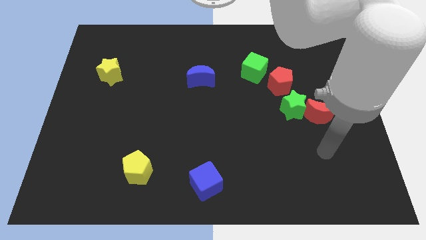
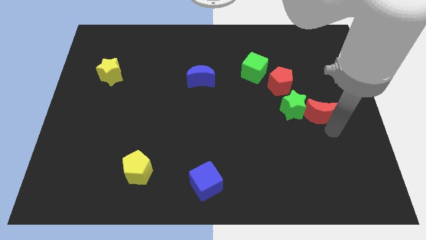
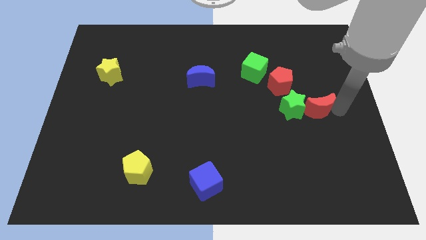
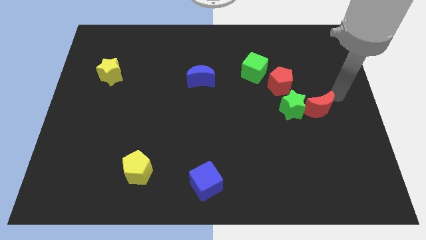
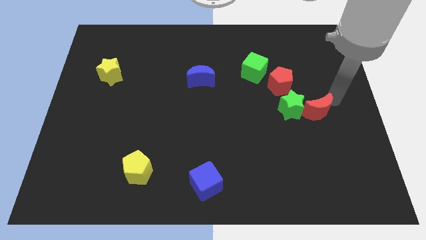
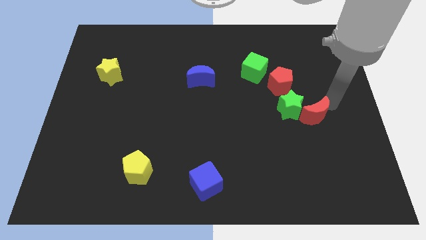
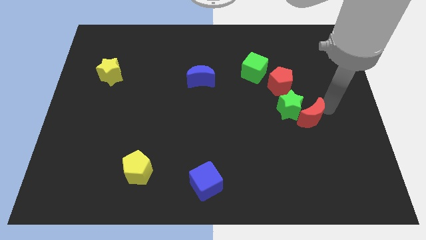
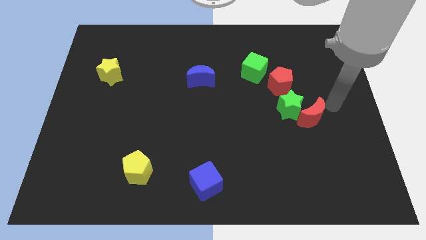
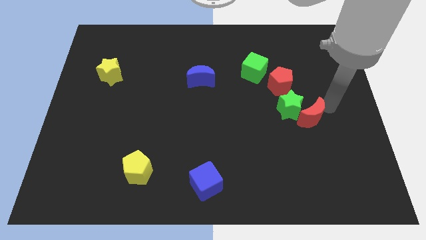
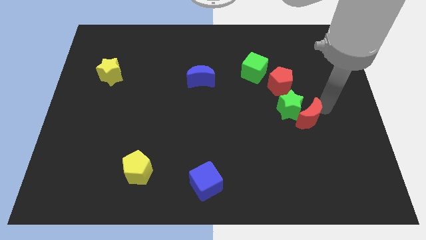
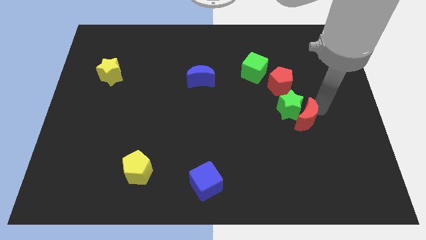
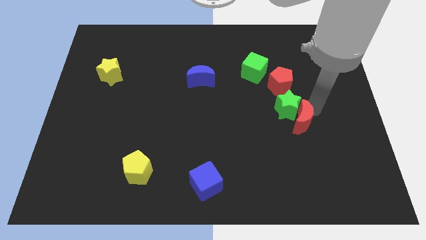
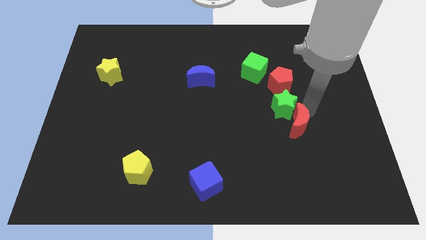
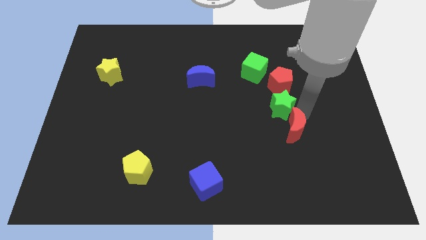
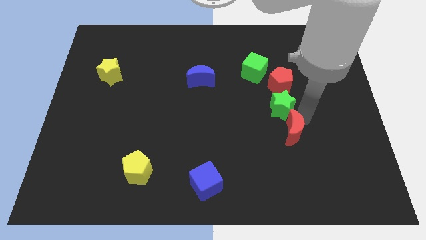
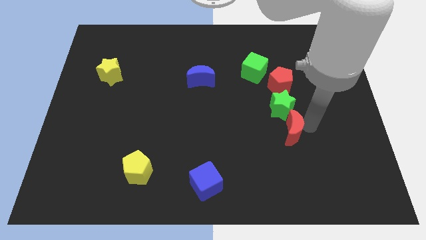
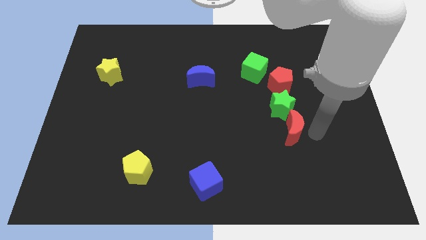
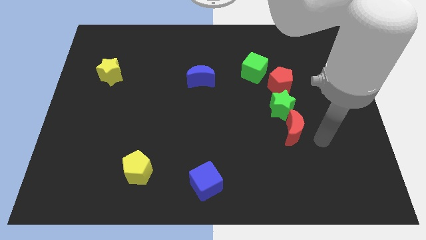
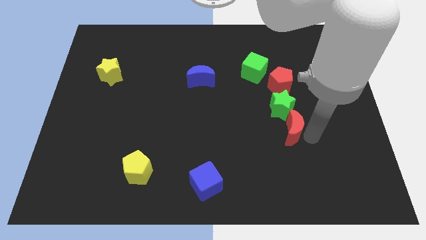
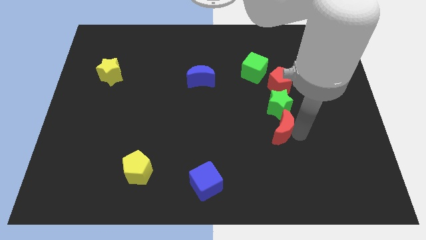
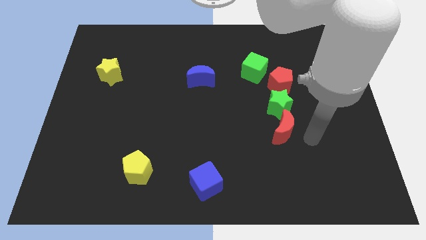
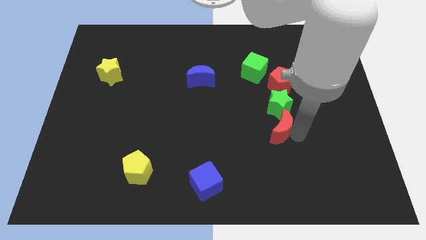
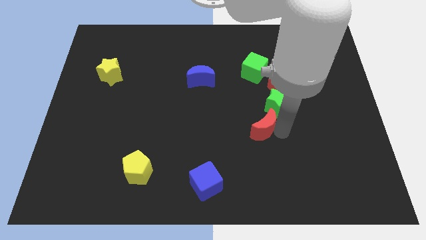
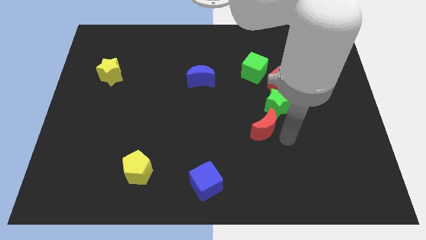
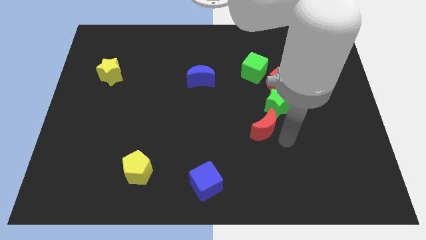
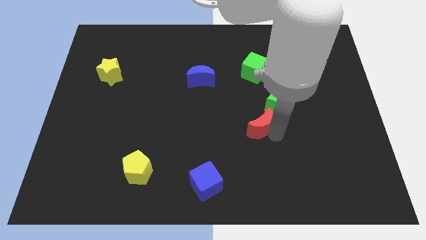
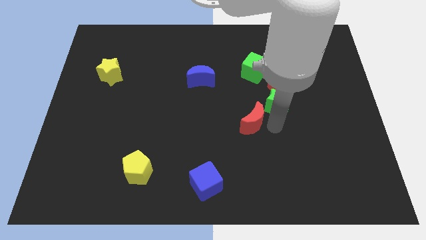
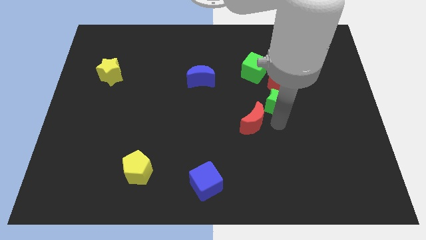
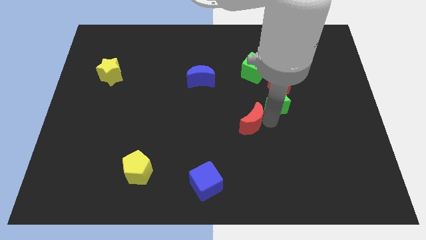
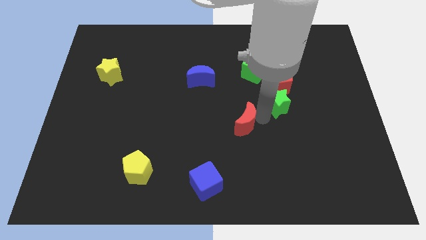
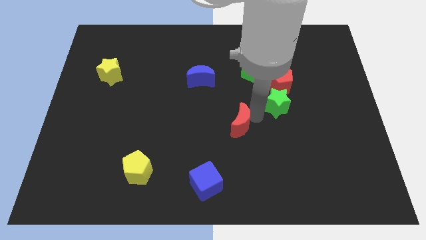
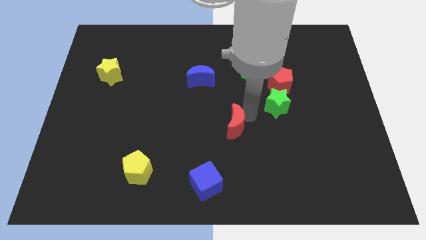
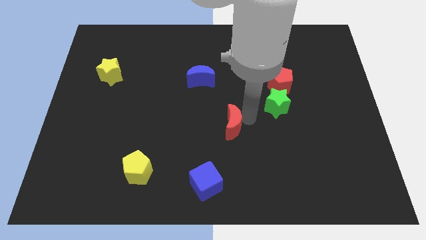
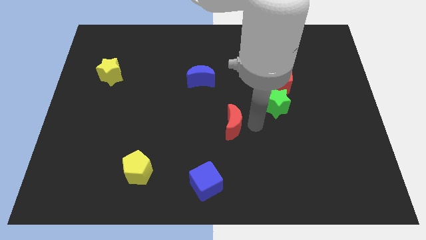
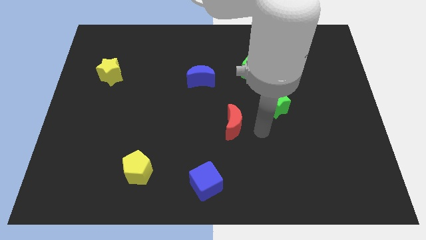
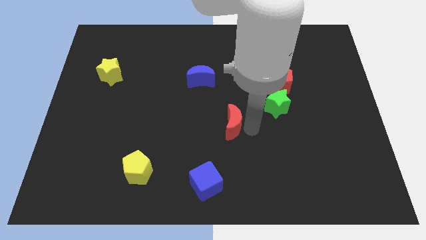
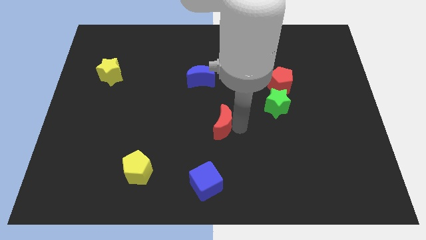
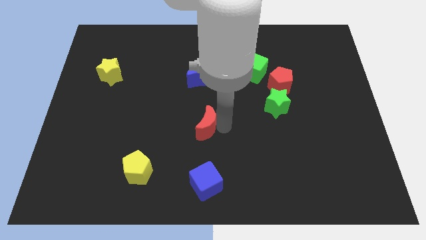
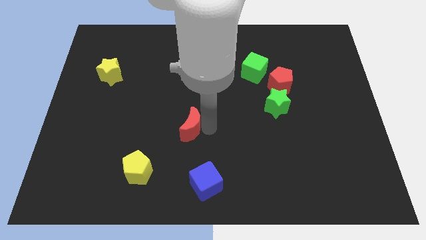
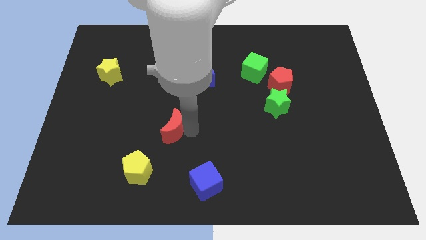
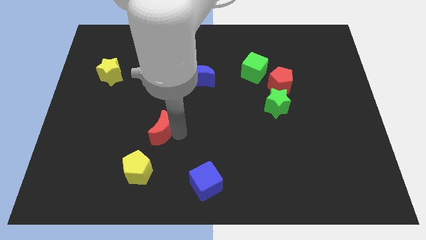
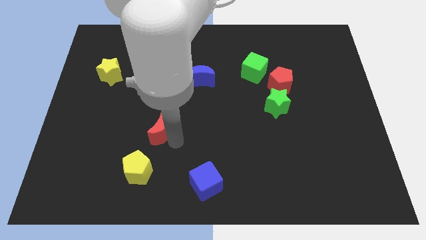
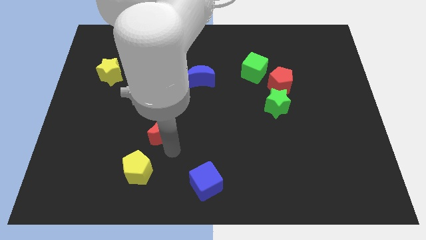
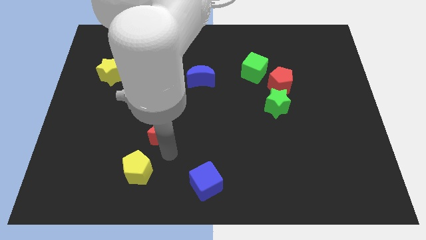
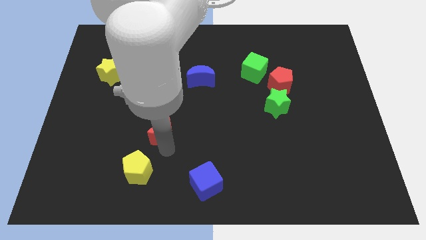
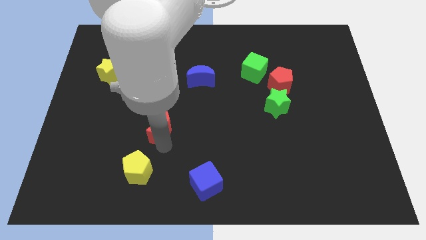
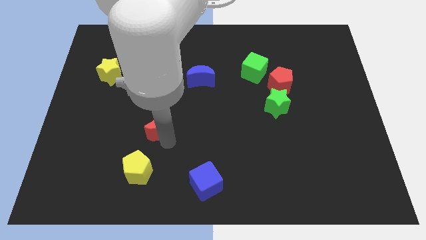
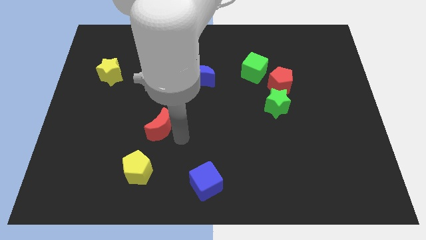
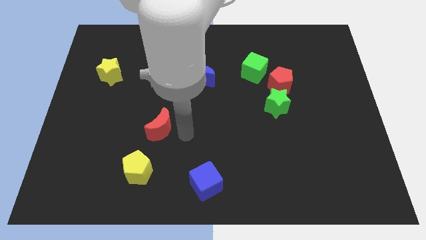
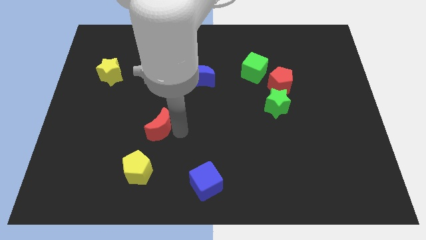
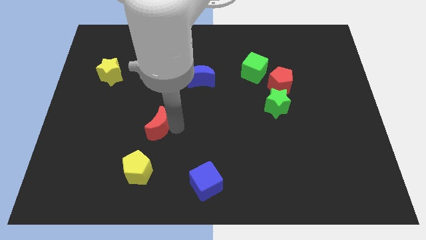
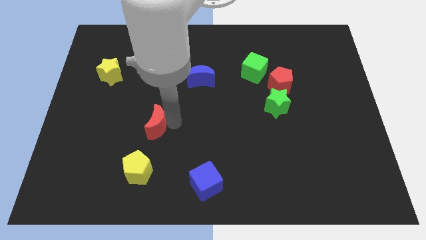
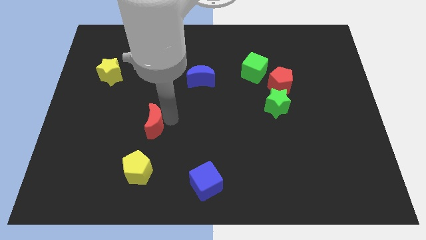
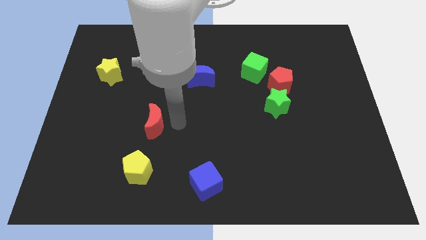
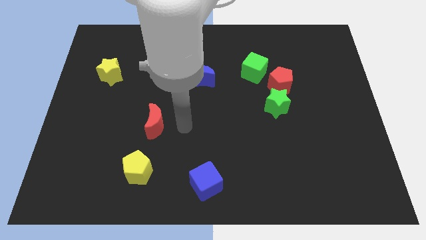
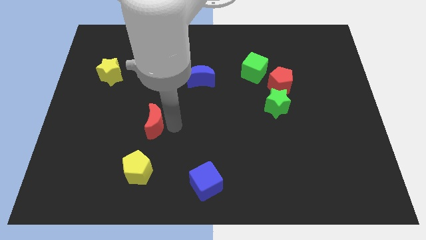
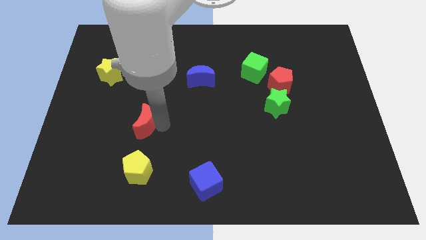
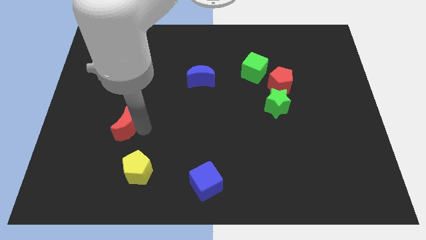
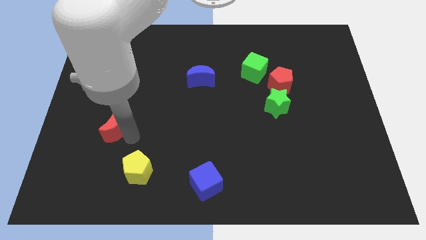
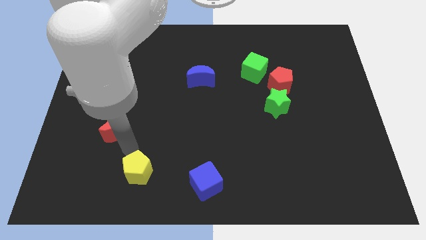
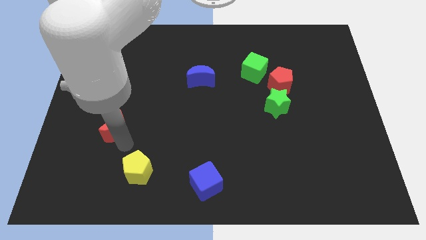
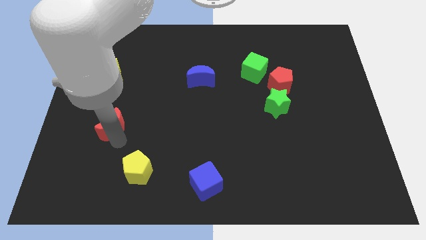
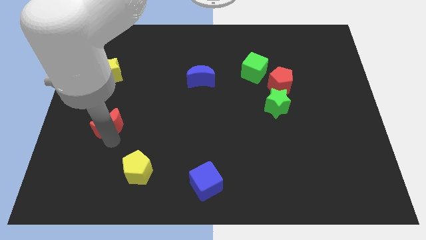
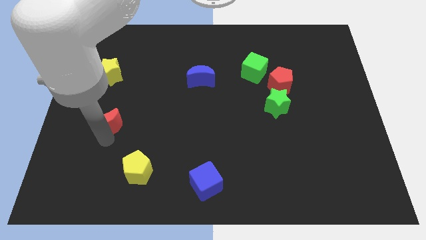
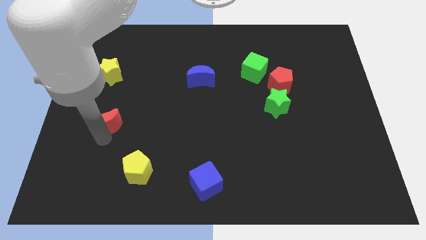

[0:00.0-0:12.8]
slide the red moon to the bottom side of the yellow star
